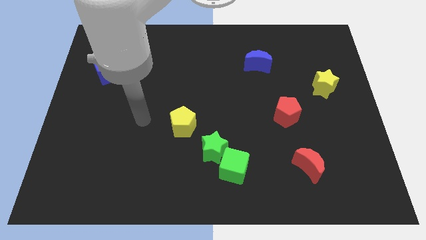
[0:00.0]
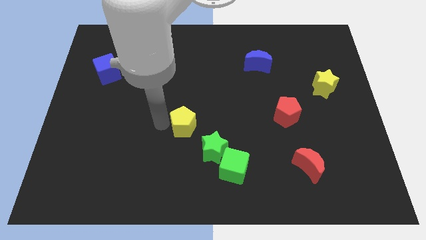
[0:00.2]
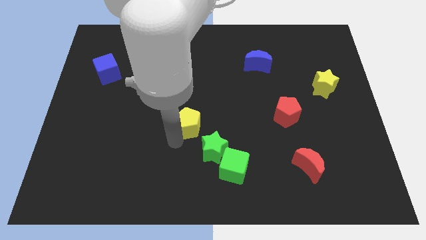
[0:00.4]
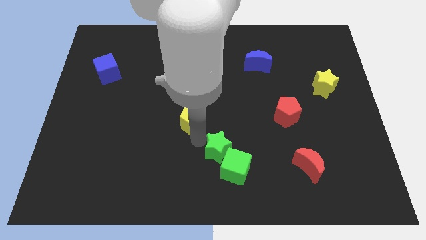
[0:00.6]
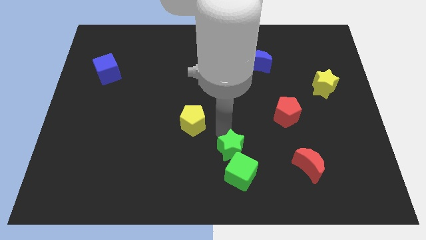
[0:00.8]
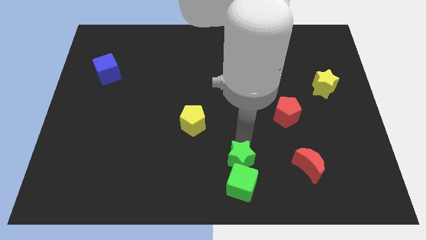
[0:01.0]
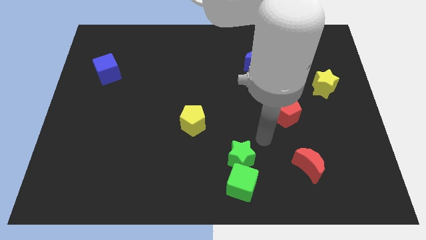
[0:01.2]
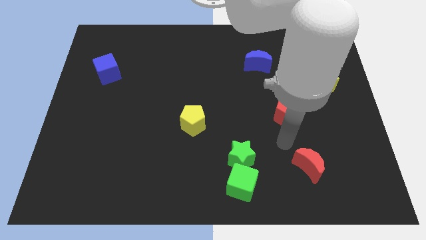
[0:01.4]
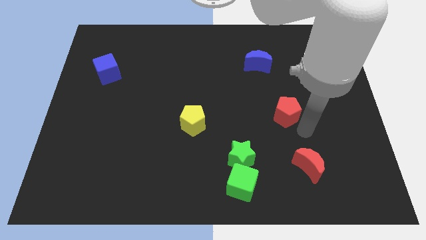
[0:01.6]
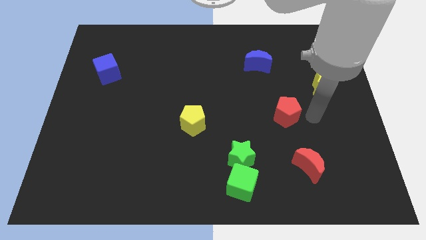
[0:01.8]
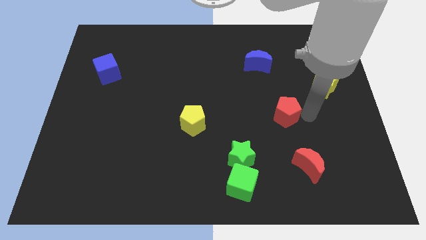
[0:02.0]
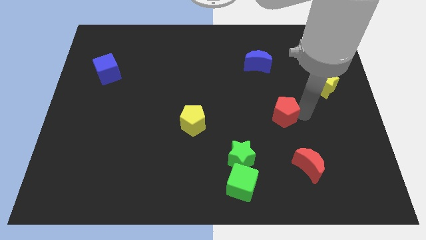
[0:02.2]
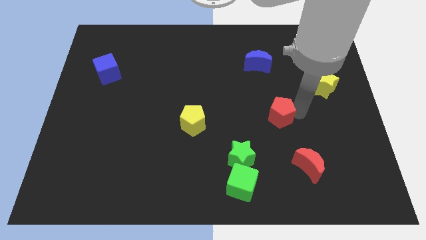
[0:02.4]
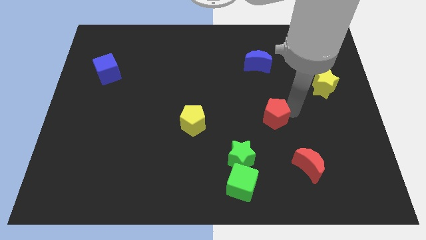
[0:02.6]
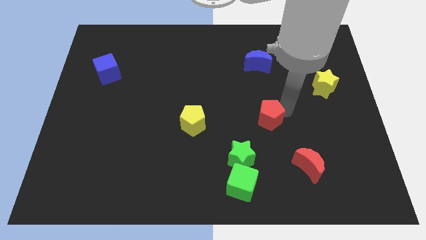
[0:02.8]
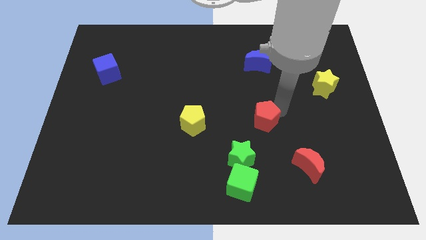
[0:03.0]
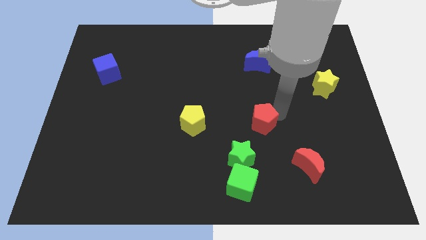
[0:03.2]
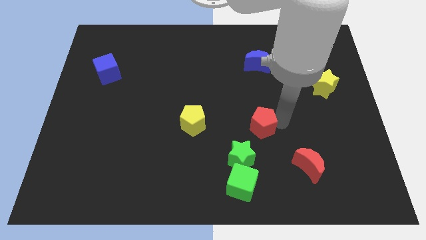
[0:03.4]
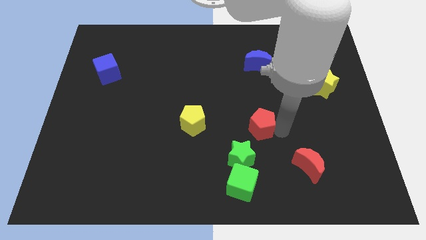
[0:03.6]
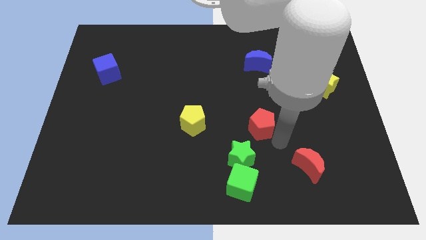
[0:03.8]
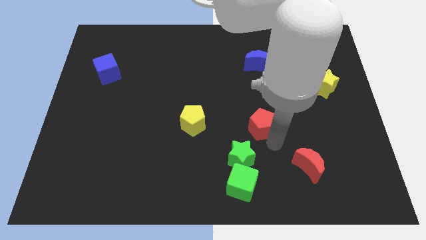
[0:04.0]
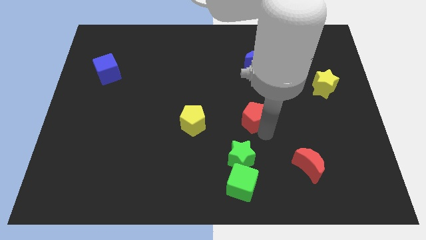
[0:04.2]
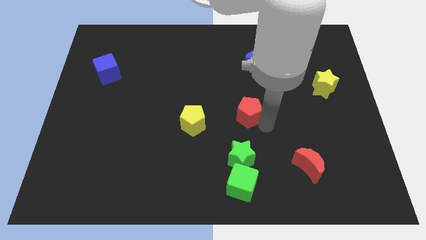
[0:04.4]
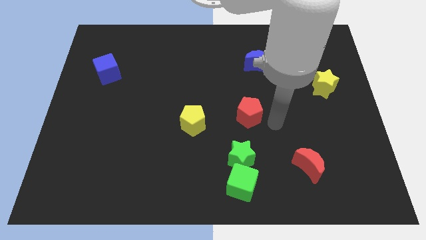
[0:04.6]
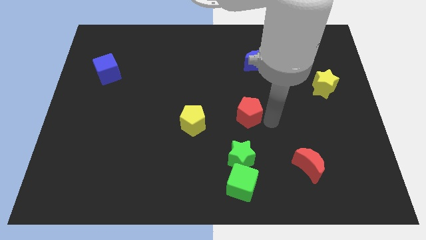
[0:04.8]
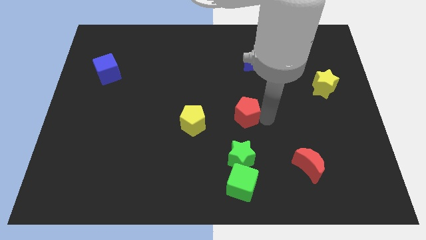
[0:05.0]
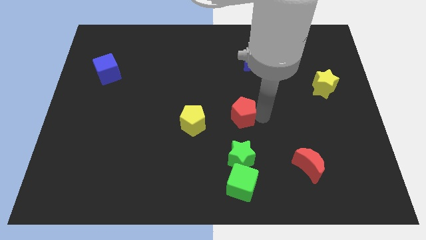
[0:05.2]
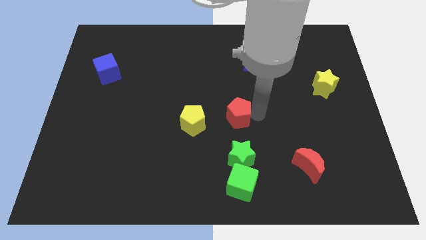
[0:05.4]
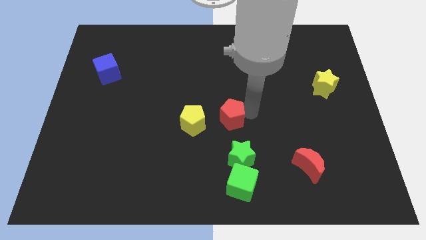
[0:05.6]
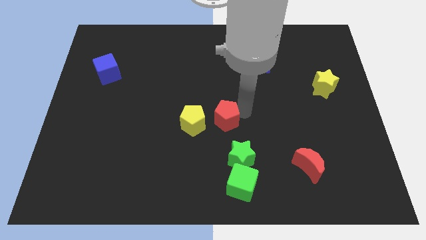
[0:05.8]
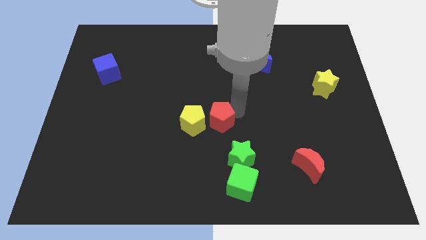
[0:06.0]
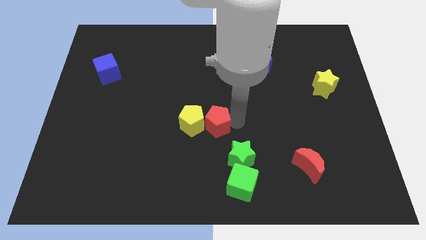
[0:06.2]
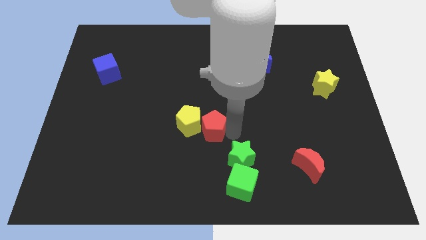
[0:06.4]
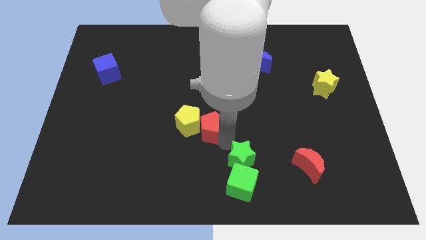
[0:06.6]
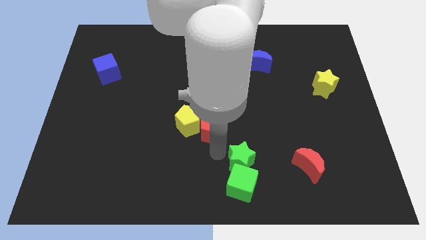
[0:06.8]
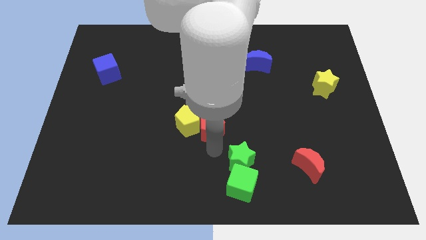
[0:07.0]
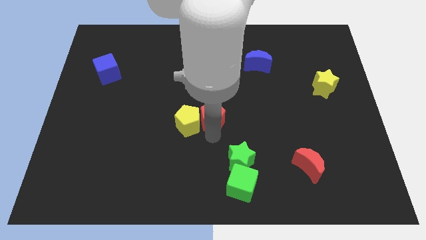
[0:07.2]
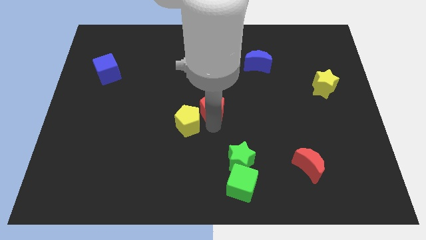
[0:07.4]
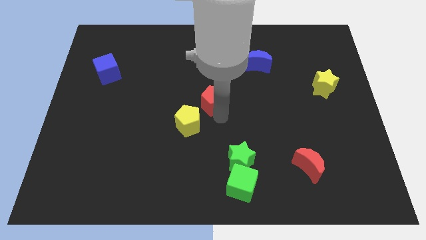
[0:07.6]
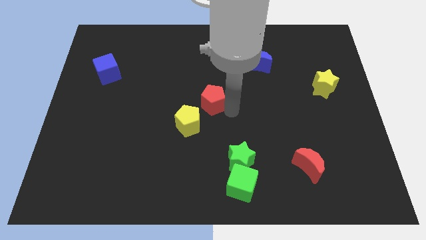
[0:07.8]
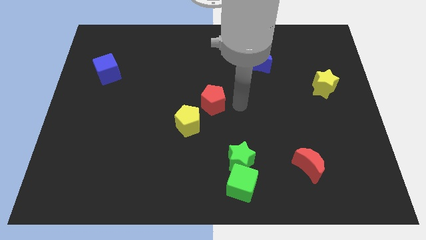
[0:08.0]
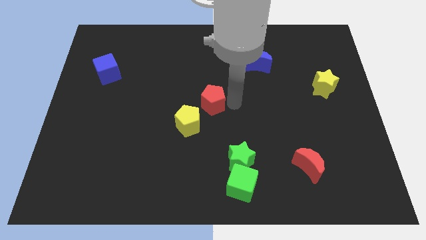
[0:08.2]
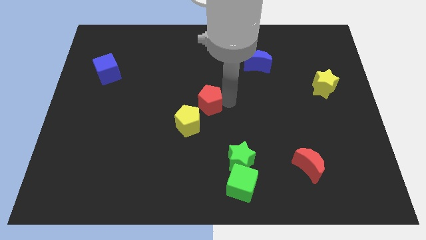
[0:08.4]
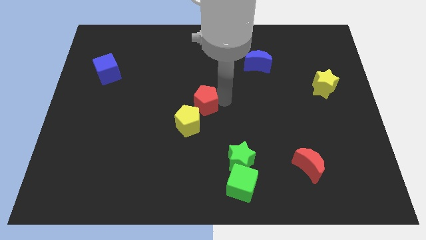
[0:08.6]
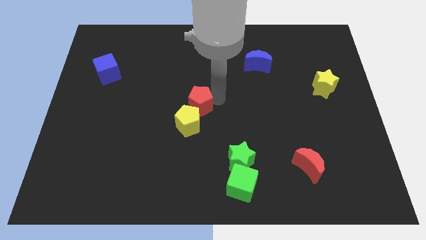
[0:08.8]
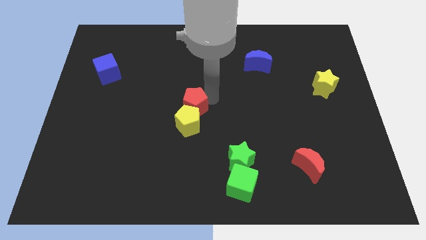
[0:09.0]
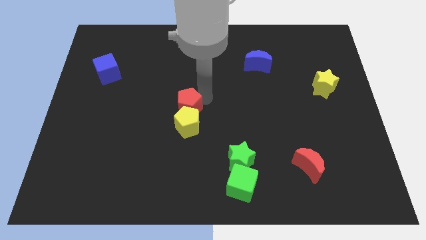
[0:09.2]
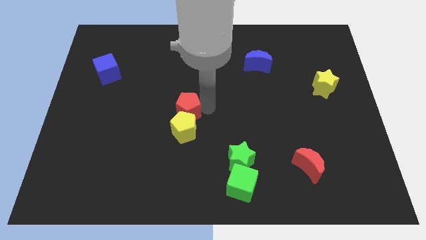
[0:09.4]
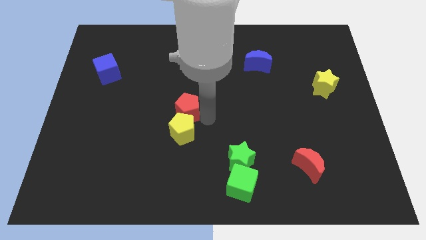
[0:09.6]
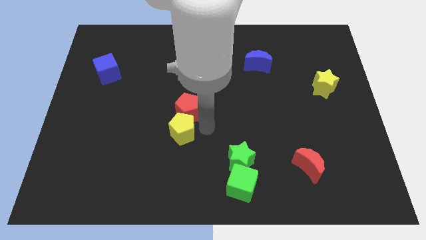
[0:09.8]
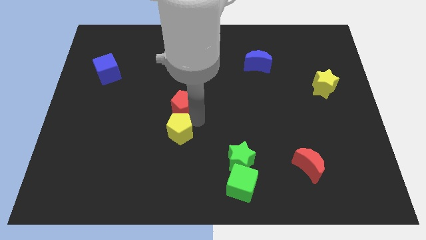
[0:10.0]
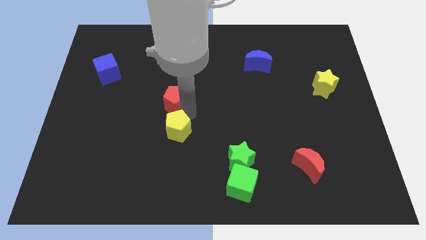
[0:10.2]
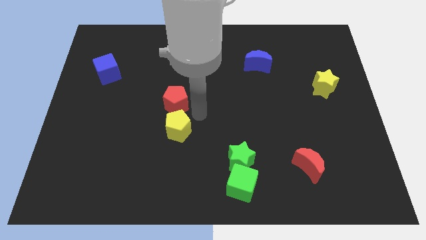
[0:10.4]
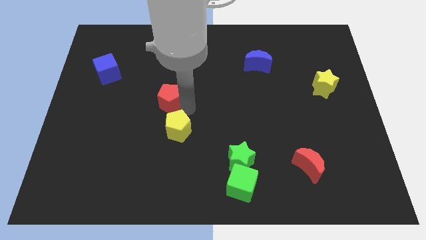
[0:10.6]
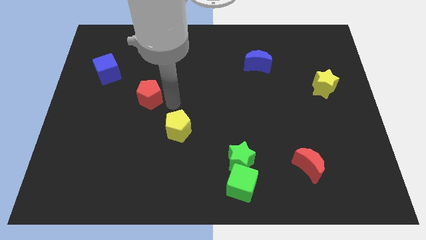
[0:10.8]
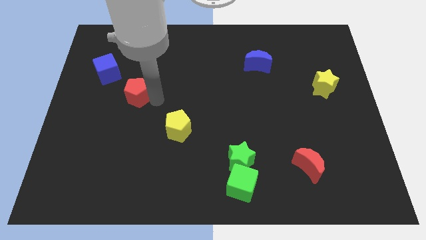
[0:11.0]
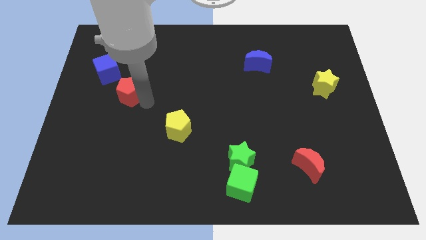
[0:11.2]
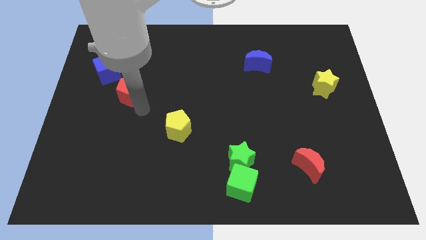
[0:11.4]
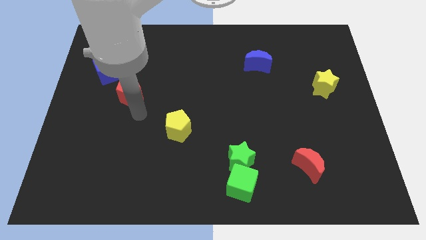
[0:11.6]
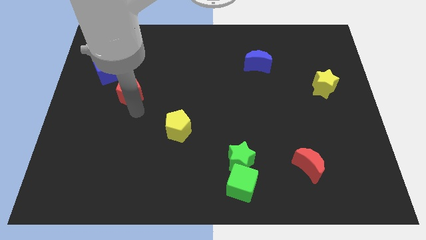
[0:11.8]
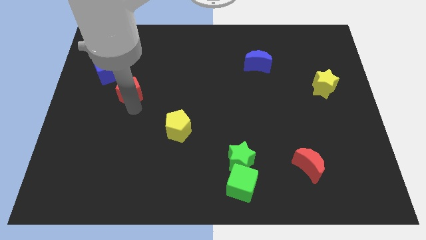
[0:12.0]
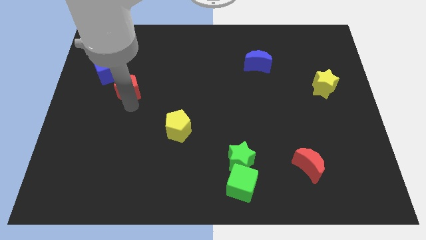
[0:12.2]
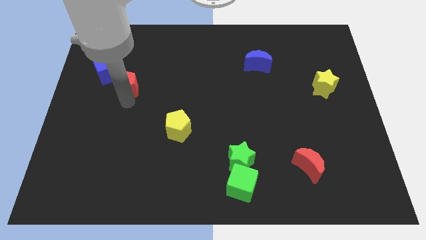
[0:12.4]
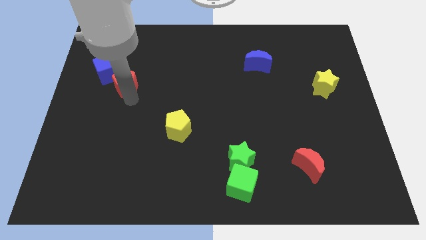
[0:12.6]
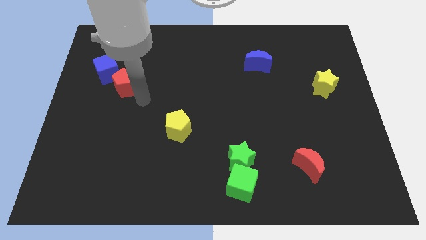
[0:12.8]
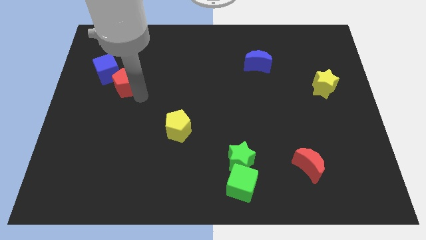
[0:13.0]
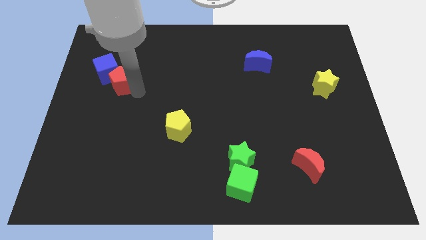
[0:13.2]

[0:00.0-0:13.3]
slide the red pentagon to the blue cube

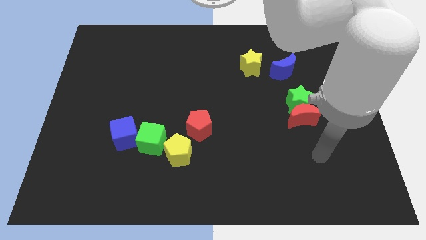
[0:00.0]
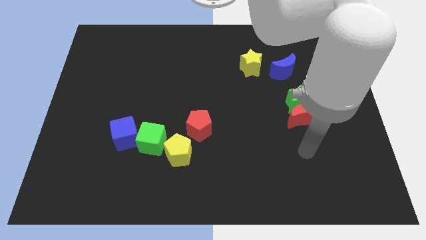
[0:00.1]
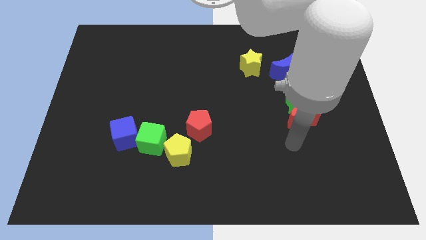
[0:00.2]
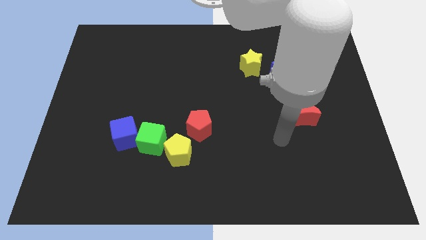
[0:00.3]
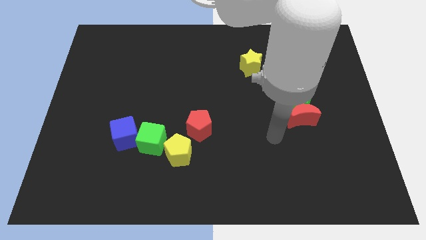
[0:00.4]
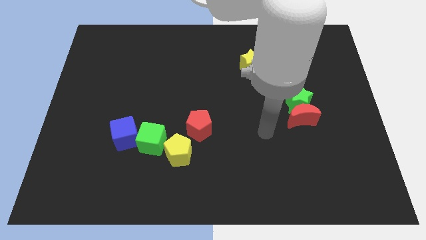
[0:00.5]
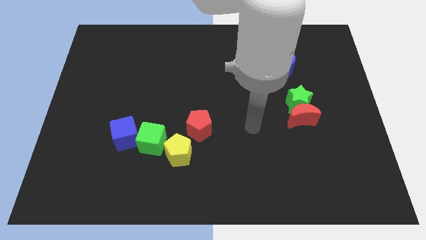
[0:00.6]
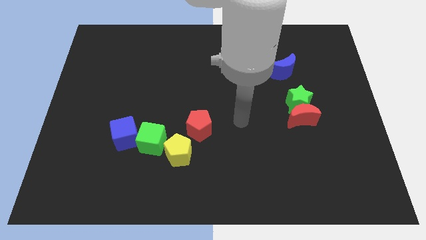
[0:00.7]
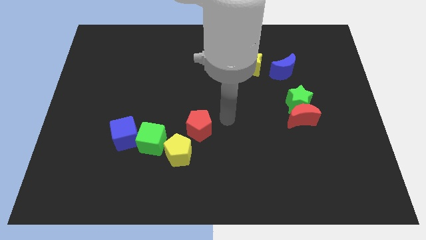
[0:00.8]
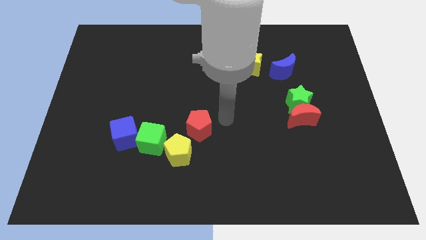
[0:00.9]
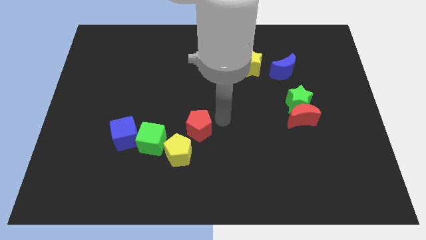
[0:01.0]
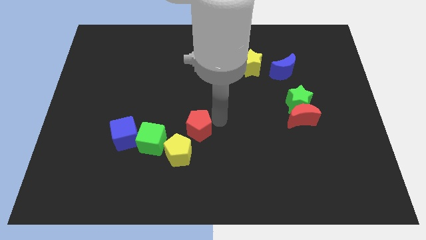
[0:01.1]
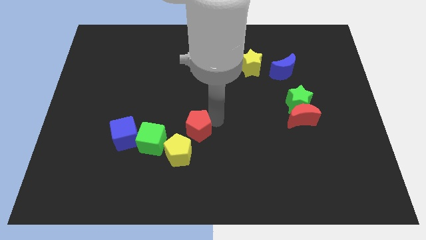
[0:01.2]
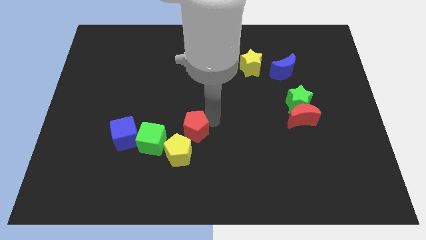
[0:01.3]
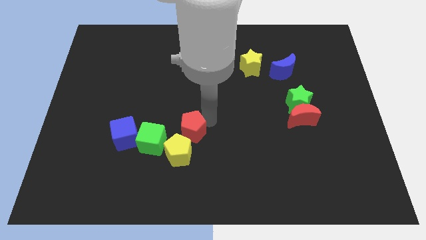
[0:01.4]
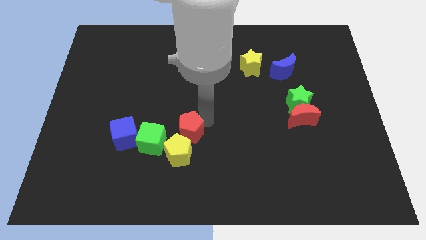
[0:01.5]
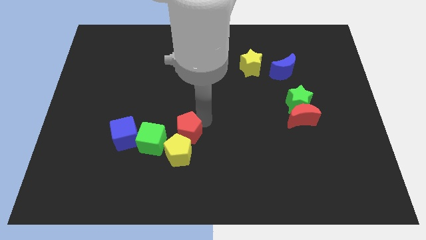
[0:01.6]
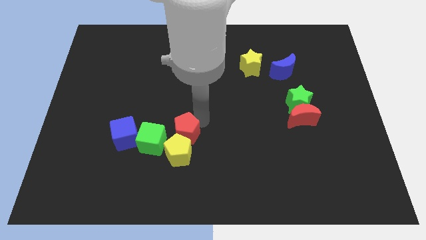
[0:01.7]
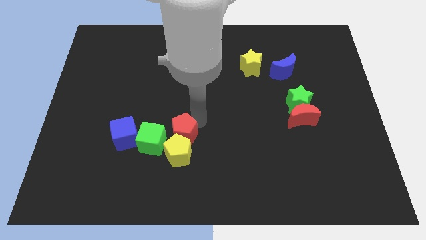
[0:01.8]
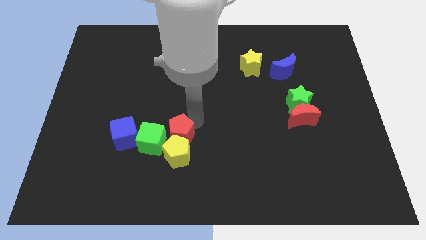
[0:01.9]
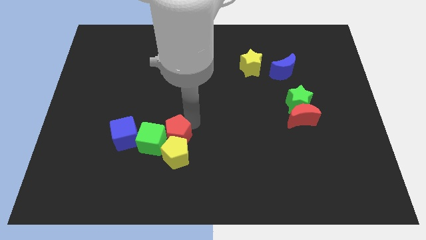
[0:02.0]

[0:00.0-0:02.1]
move the red pentagon next to the green cube
